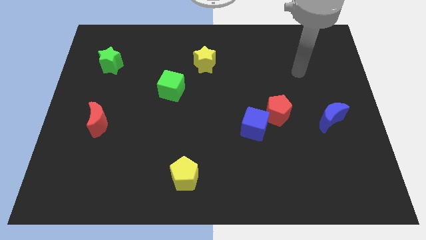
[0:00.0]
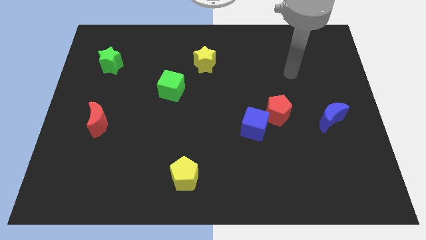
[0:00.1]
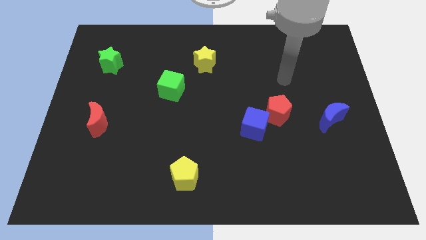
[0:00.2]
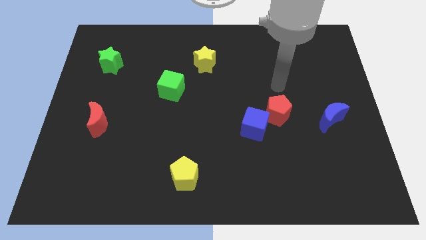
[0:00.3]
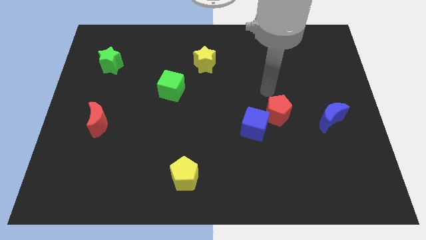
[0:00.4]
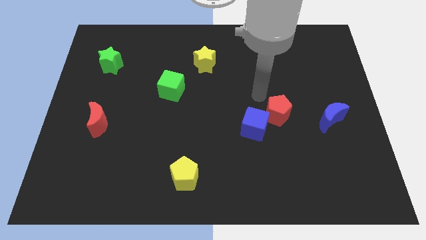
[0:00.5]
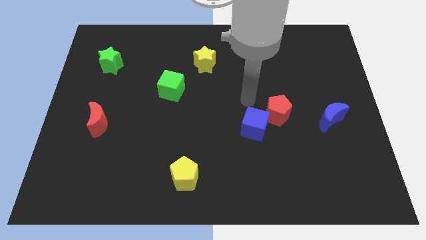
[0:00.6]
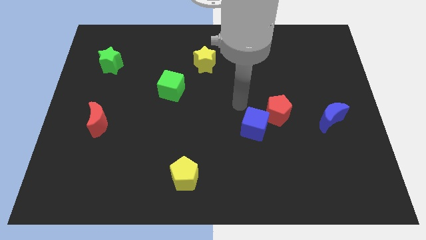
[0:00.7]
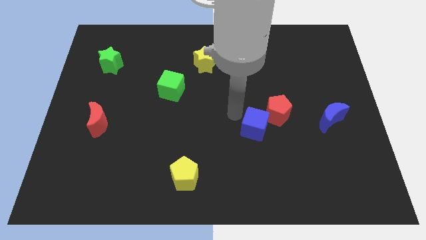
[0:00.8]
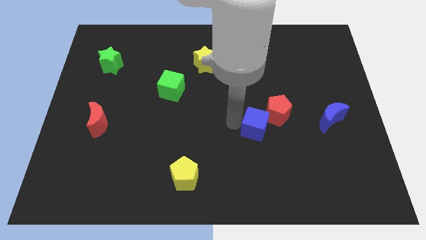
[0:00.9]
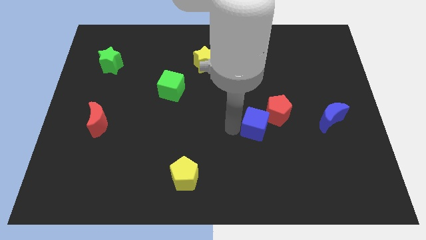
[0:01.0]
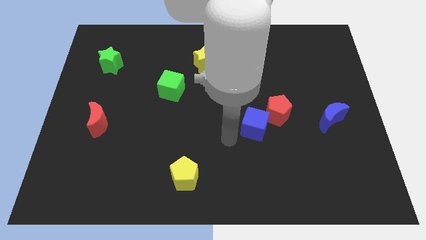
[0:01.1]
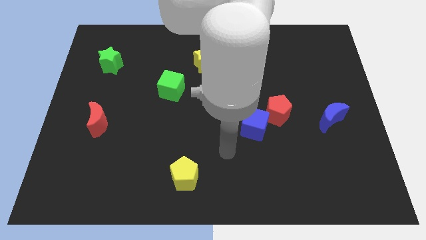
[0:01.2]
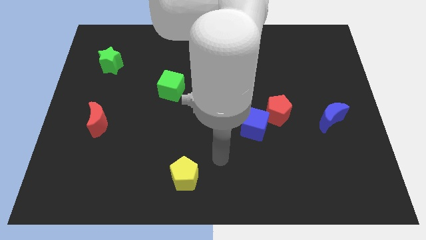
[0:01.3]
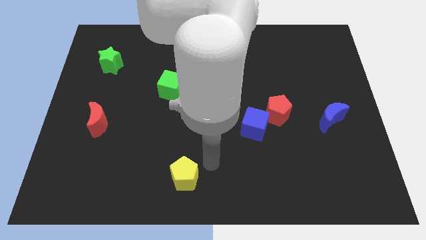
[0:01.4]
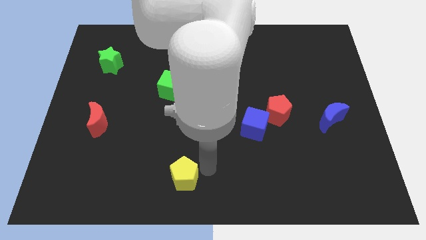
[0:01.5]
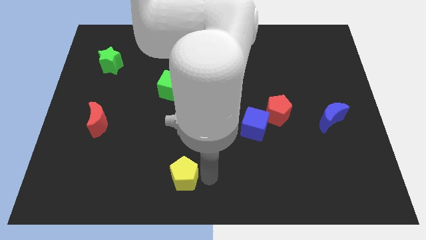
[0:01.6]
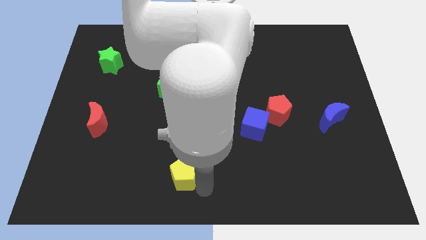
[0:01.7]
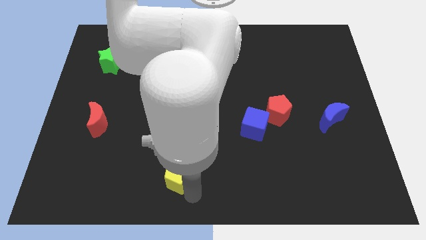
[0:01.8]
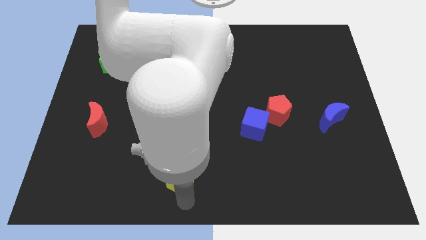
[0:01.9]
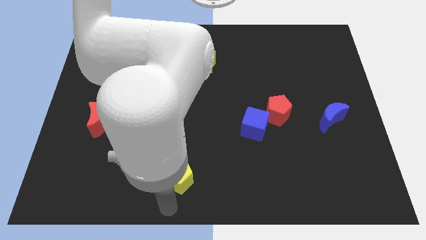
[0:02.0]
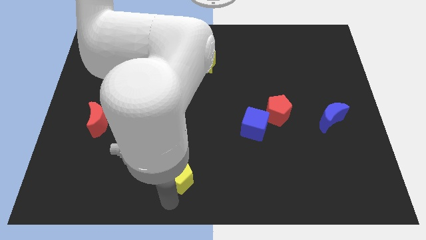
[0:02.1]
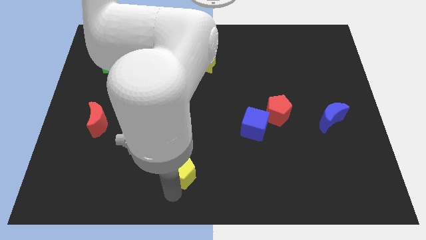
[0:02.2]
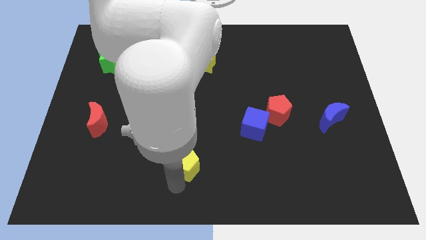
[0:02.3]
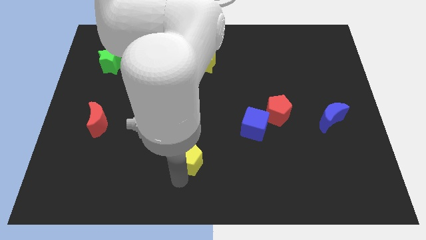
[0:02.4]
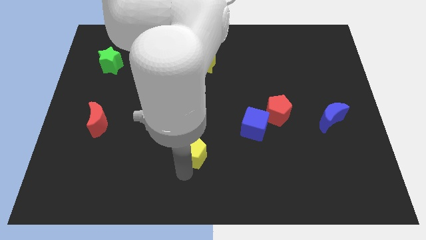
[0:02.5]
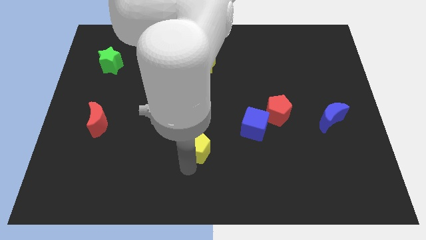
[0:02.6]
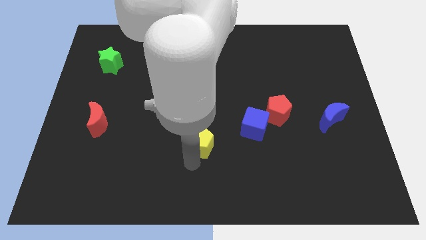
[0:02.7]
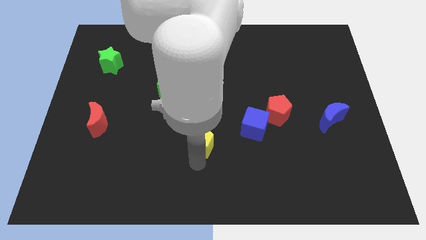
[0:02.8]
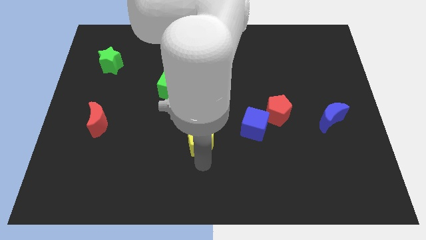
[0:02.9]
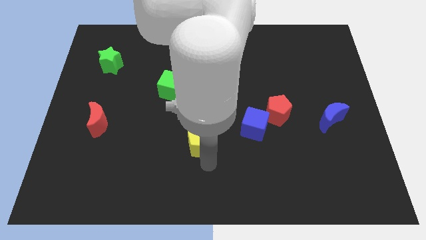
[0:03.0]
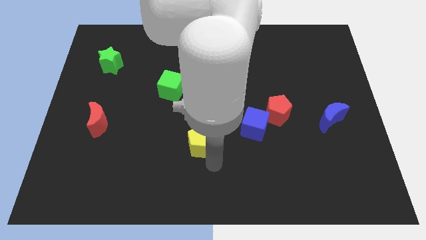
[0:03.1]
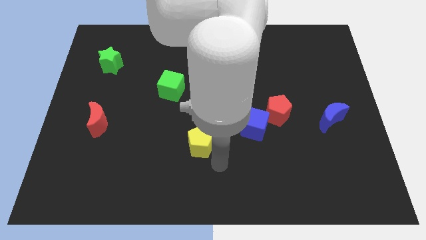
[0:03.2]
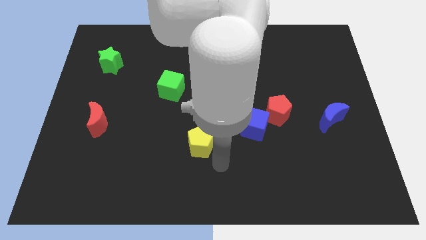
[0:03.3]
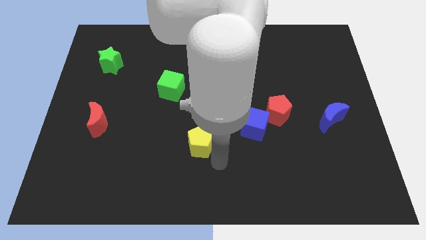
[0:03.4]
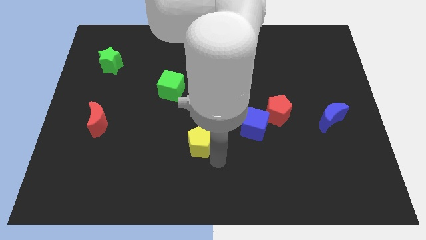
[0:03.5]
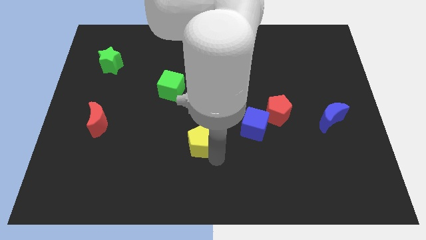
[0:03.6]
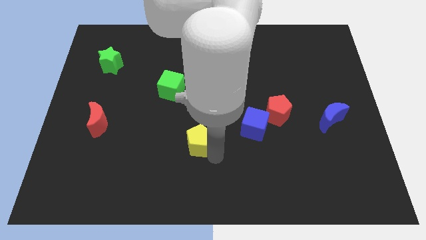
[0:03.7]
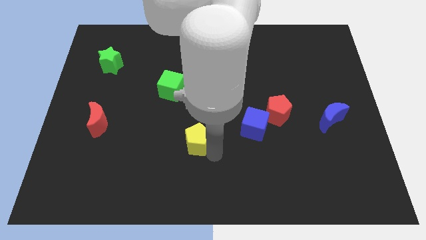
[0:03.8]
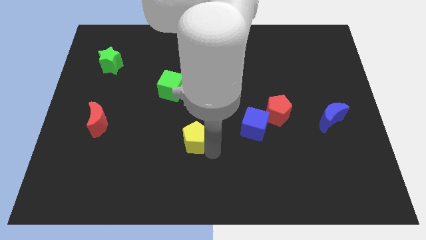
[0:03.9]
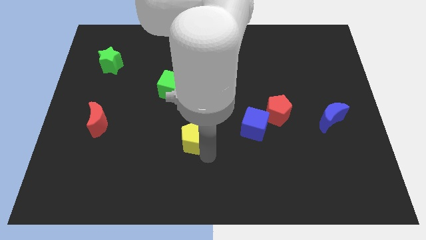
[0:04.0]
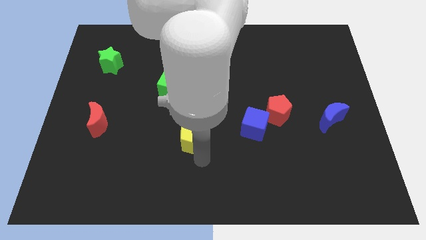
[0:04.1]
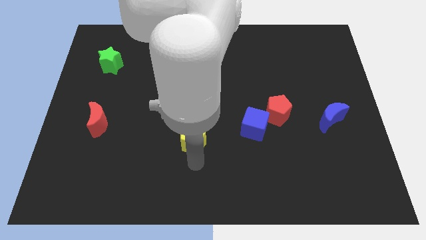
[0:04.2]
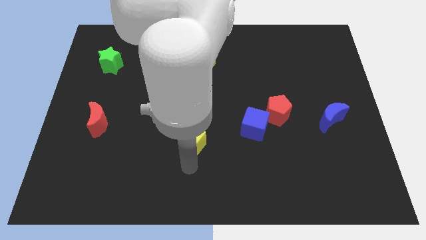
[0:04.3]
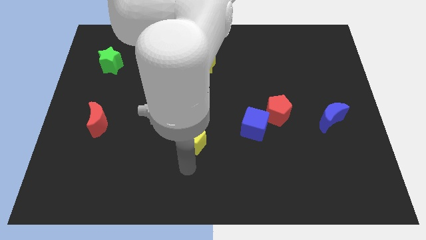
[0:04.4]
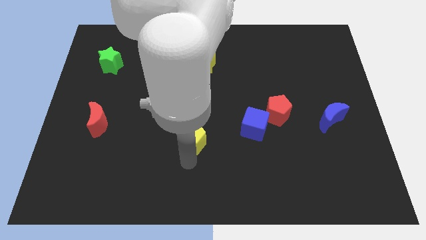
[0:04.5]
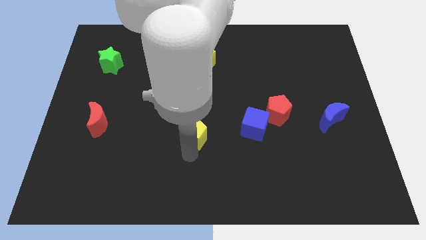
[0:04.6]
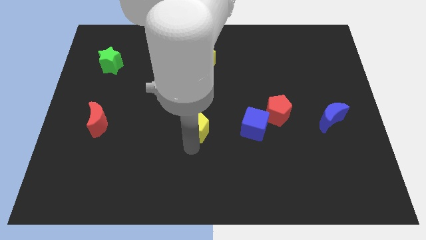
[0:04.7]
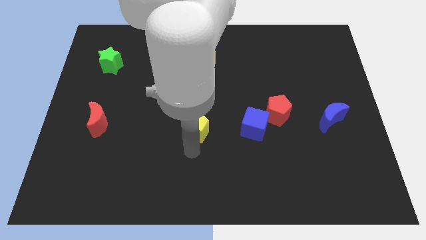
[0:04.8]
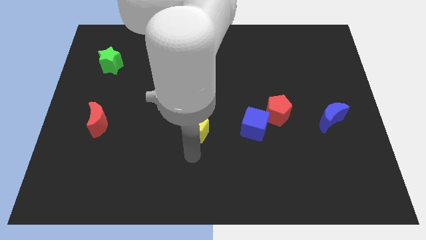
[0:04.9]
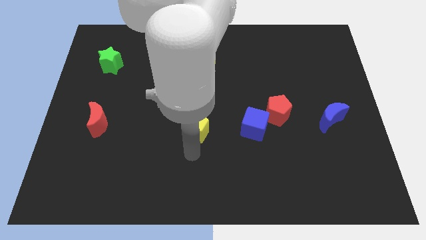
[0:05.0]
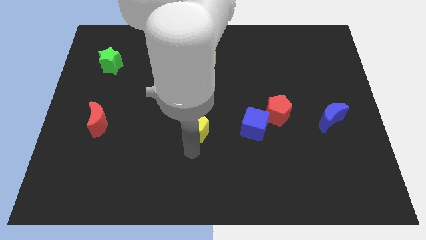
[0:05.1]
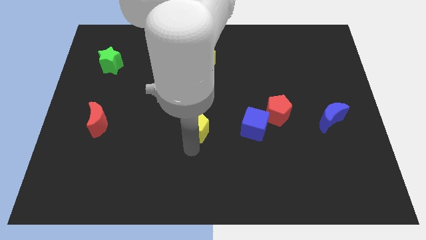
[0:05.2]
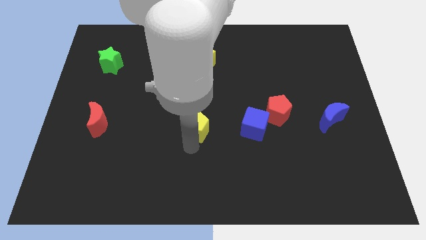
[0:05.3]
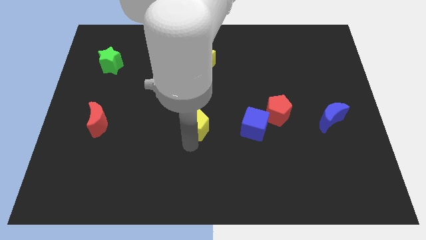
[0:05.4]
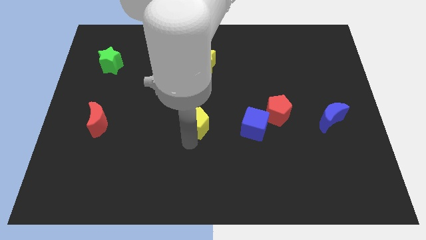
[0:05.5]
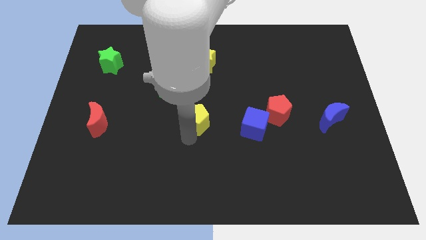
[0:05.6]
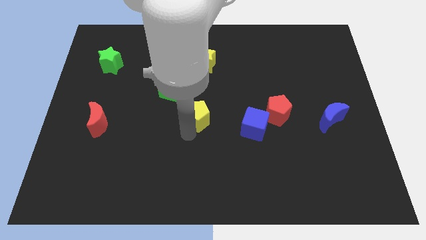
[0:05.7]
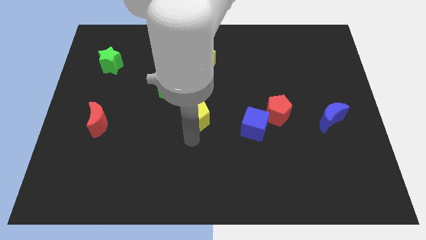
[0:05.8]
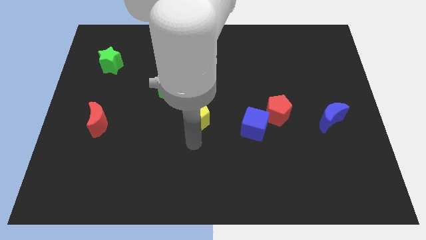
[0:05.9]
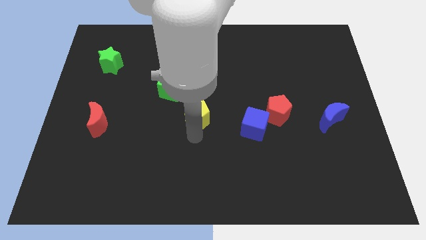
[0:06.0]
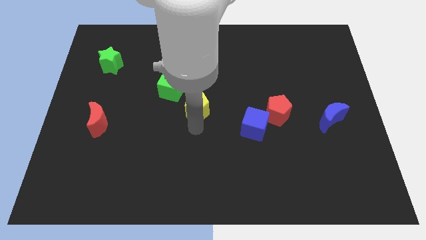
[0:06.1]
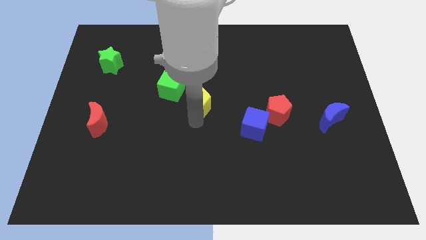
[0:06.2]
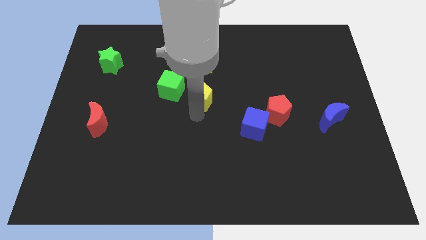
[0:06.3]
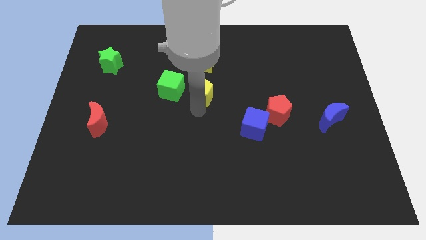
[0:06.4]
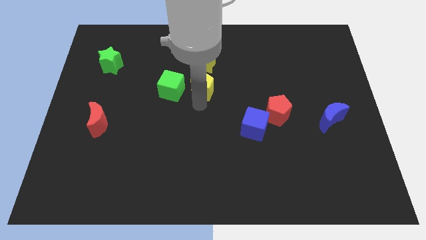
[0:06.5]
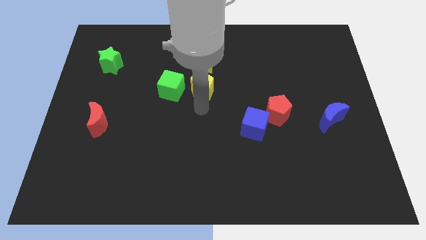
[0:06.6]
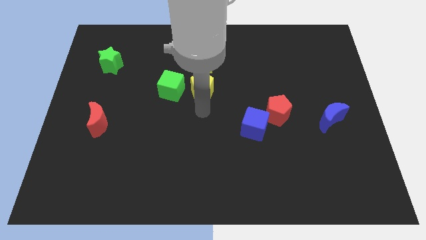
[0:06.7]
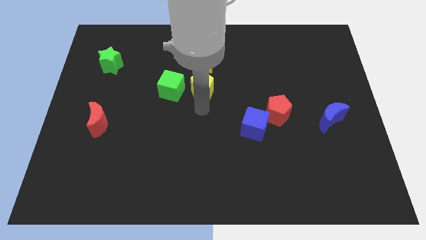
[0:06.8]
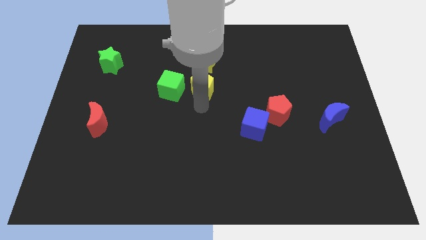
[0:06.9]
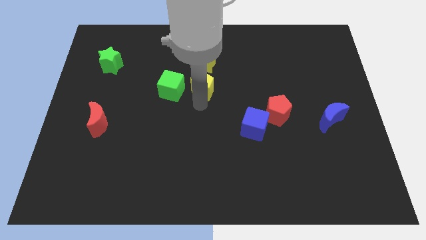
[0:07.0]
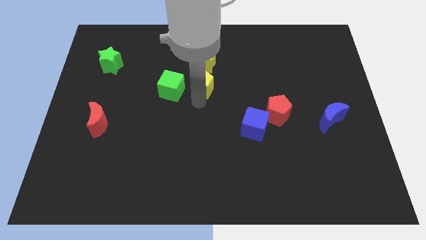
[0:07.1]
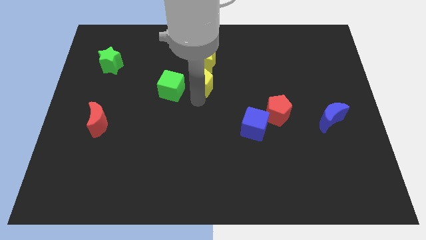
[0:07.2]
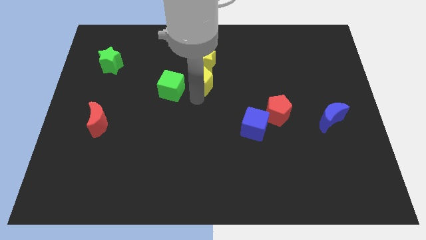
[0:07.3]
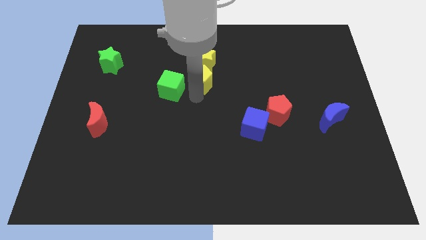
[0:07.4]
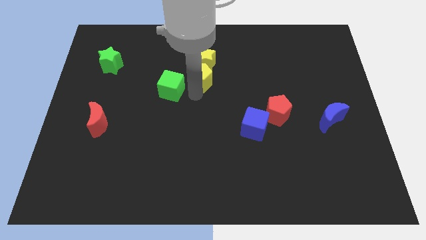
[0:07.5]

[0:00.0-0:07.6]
move the yellow pentagon towards the yellow star
